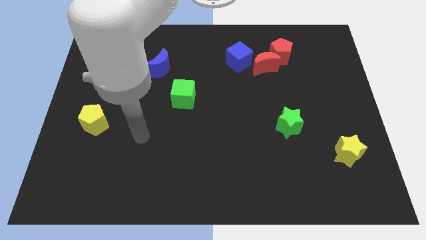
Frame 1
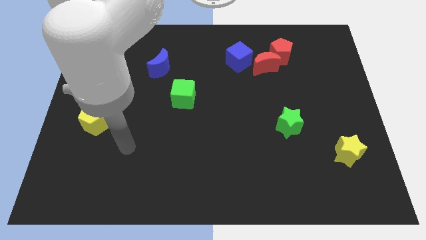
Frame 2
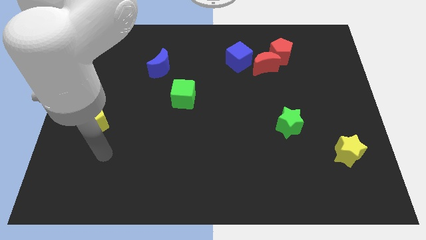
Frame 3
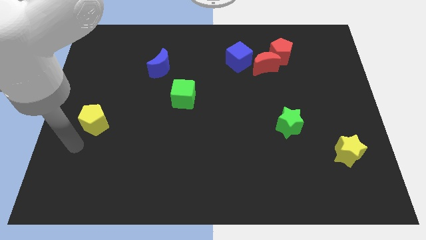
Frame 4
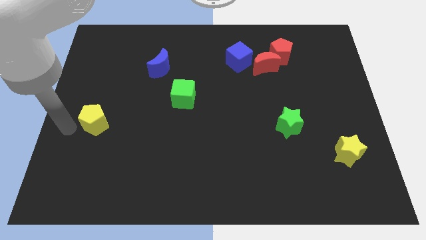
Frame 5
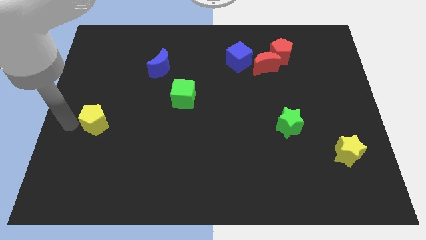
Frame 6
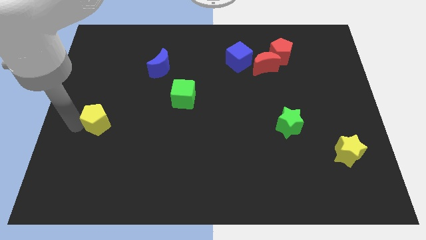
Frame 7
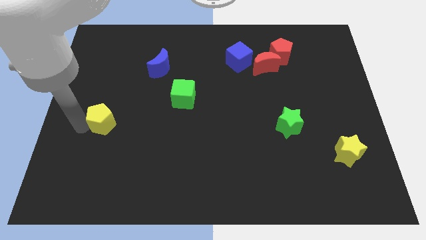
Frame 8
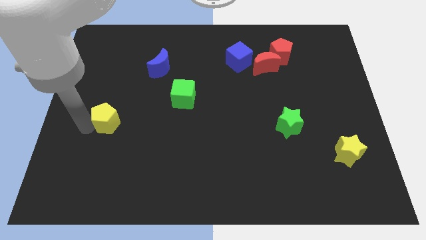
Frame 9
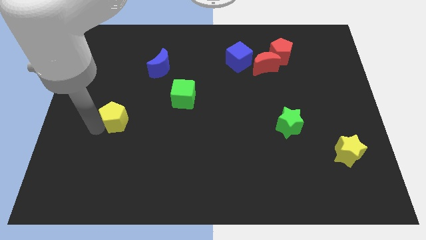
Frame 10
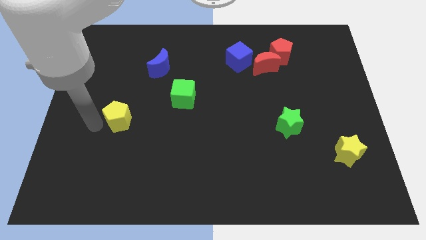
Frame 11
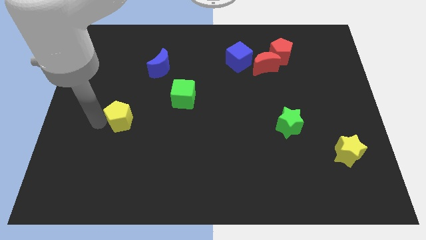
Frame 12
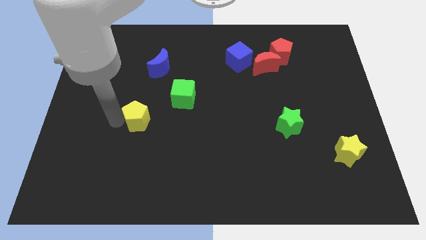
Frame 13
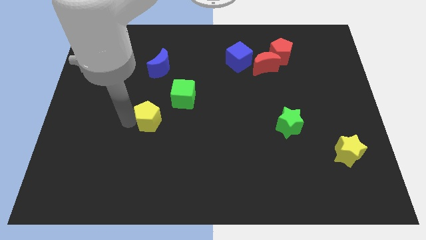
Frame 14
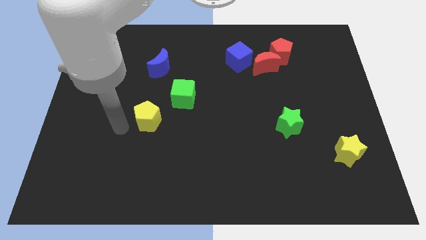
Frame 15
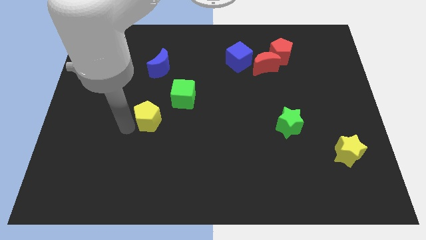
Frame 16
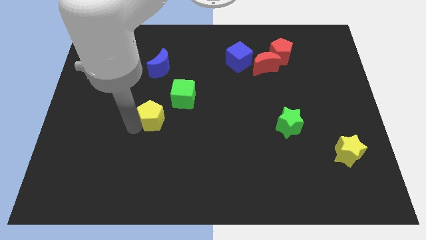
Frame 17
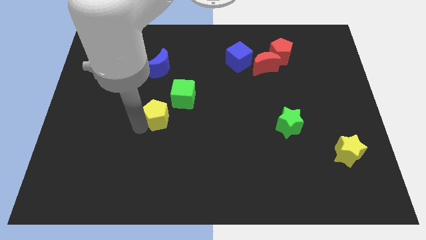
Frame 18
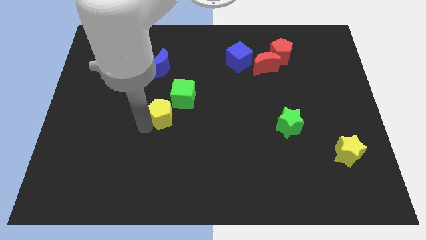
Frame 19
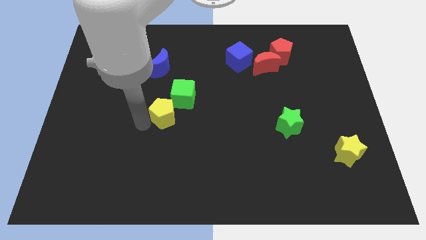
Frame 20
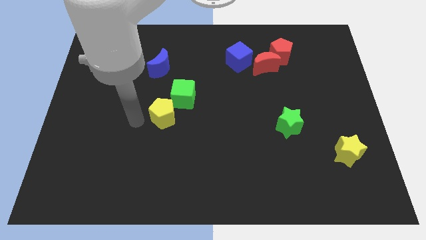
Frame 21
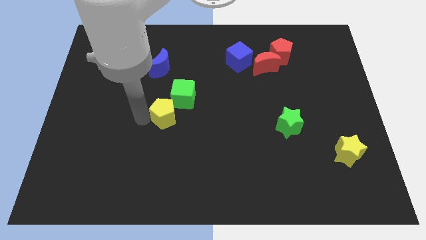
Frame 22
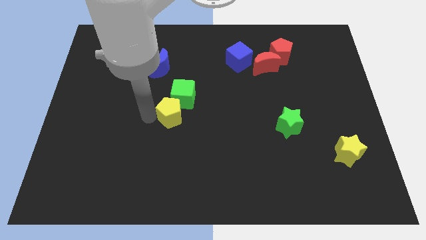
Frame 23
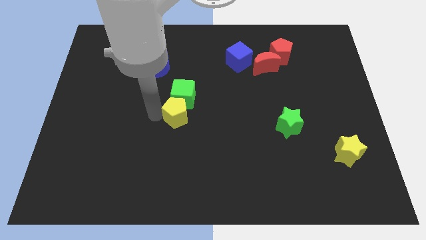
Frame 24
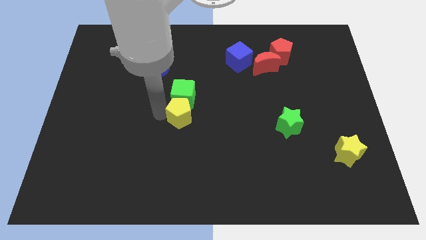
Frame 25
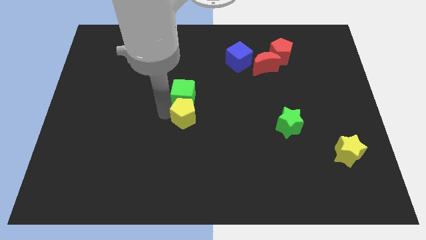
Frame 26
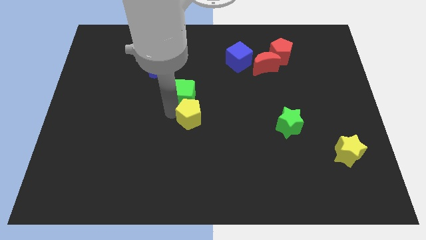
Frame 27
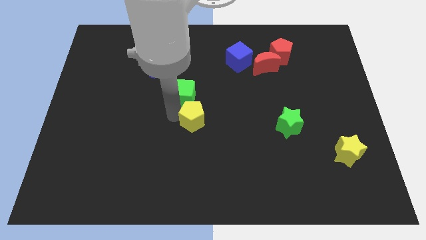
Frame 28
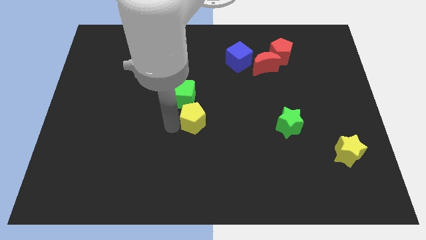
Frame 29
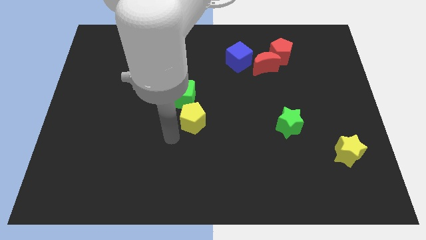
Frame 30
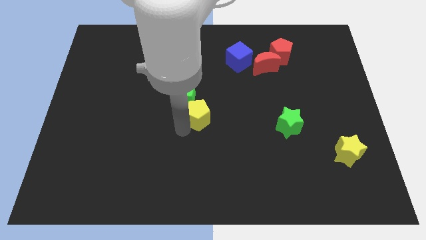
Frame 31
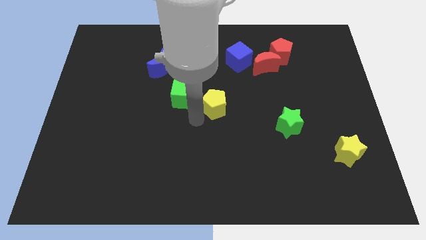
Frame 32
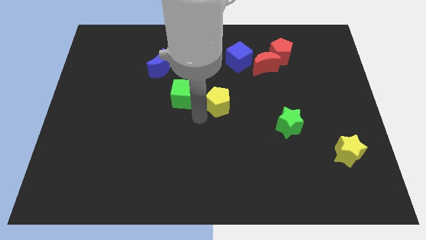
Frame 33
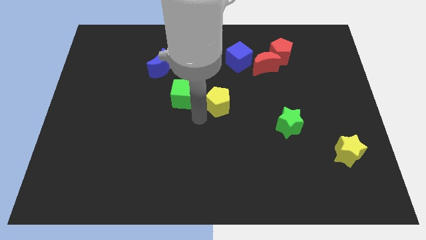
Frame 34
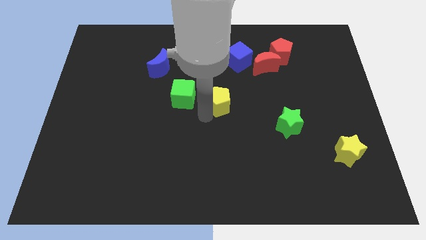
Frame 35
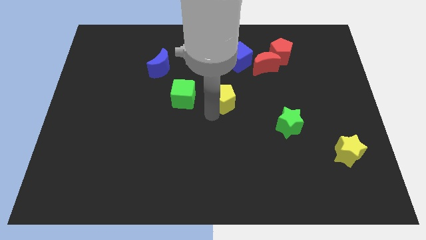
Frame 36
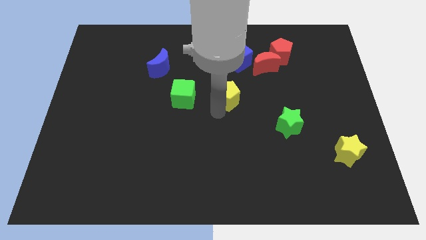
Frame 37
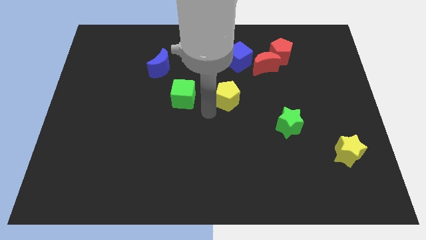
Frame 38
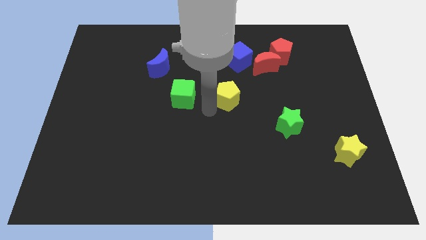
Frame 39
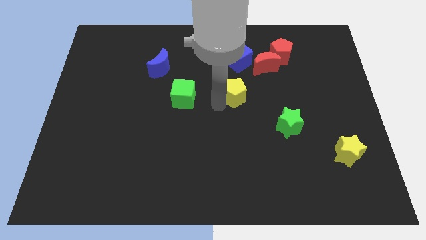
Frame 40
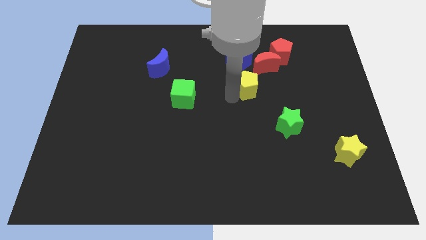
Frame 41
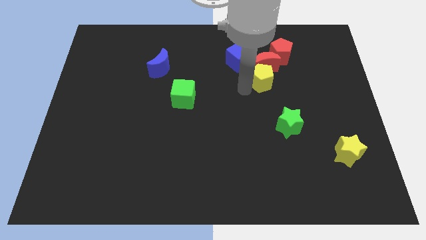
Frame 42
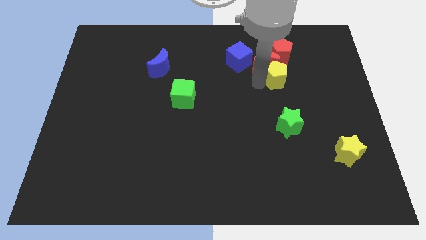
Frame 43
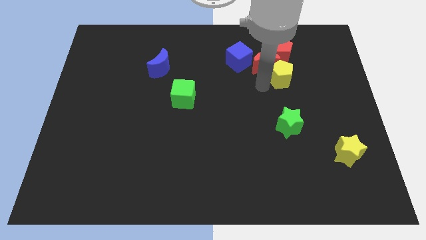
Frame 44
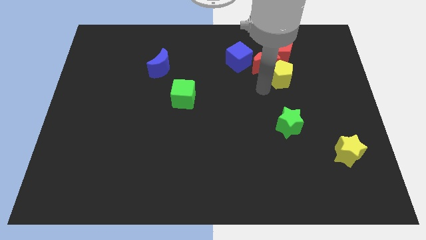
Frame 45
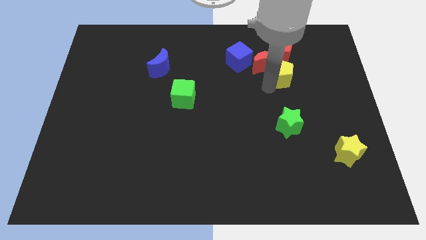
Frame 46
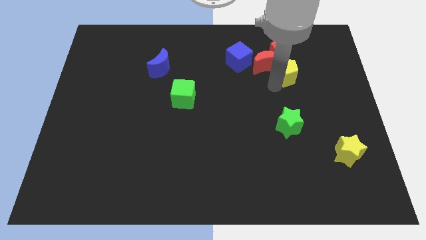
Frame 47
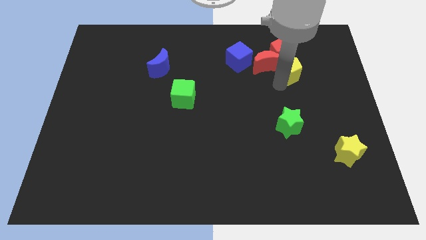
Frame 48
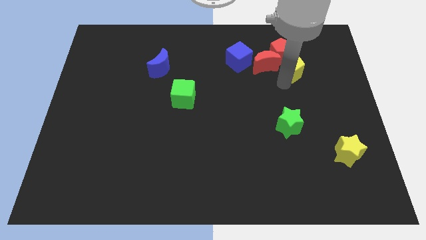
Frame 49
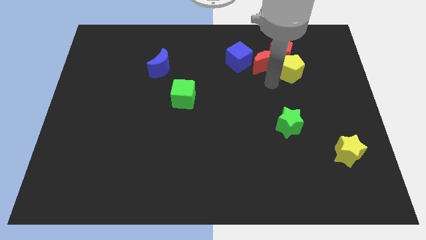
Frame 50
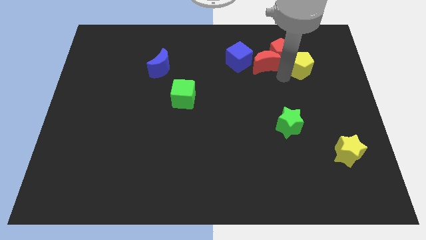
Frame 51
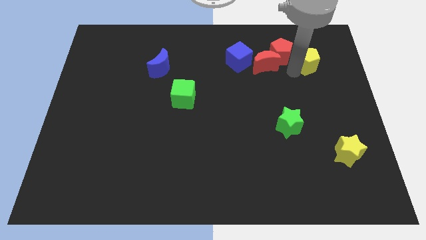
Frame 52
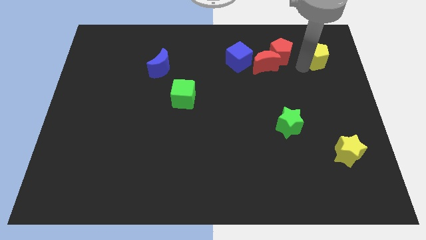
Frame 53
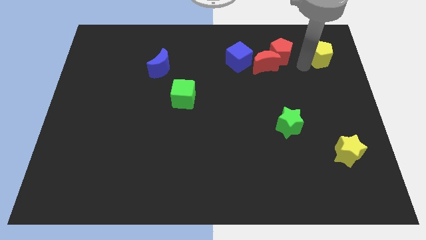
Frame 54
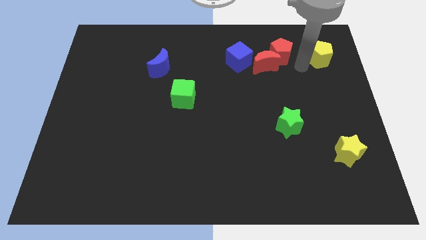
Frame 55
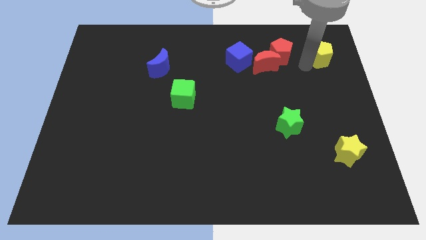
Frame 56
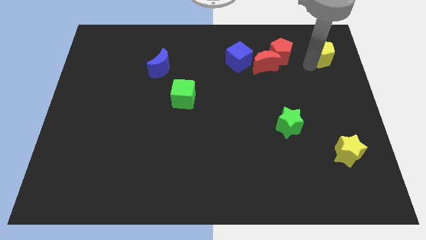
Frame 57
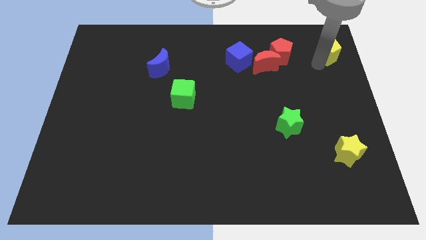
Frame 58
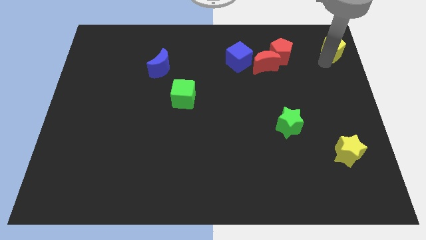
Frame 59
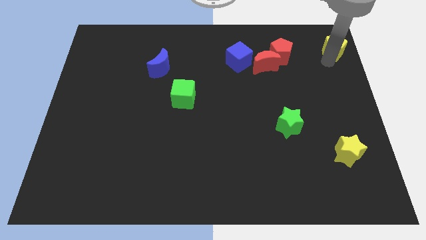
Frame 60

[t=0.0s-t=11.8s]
put the yellow pentagon to the upper right corner

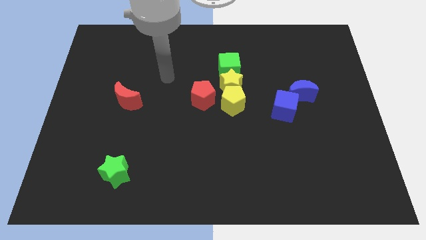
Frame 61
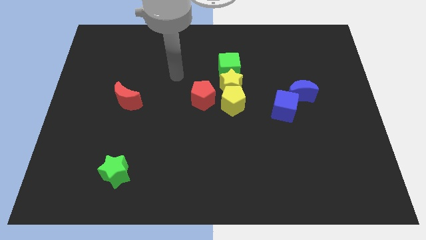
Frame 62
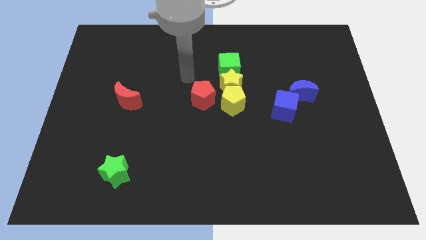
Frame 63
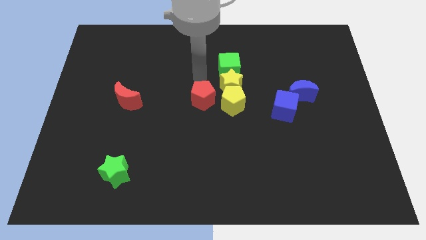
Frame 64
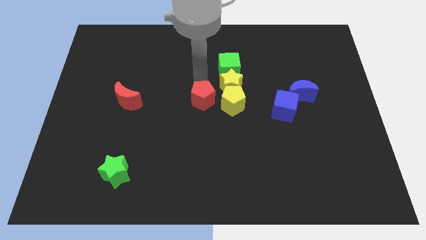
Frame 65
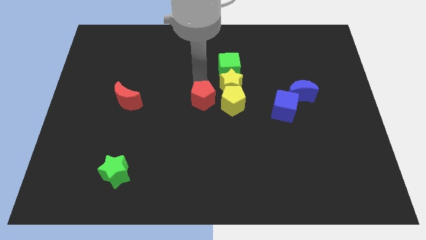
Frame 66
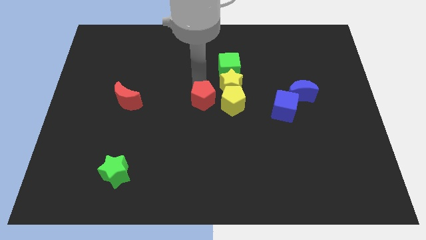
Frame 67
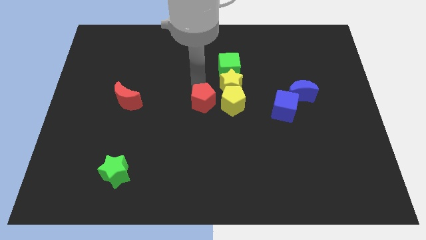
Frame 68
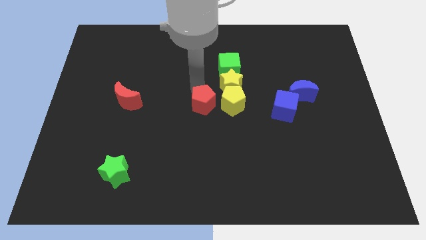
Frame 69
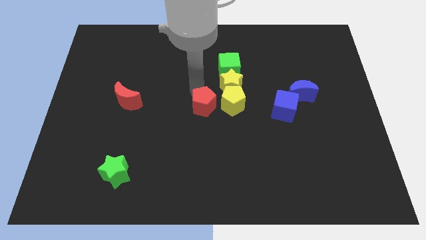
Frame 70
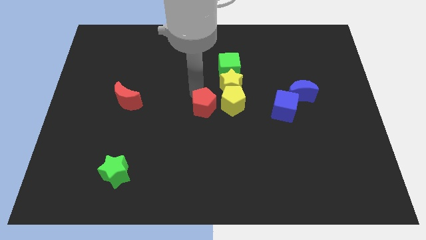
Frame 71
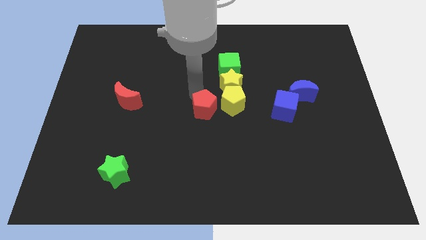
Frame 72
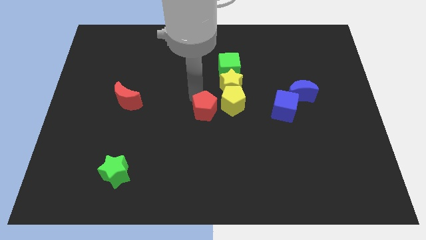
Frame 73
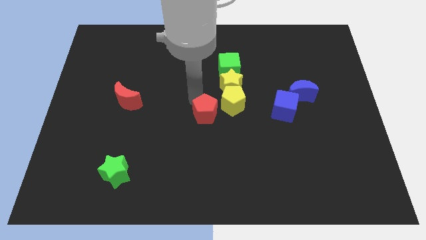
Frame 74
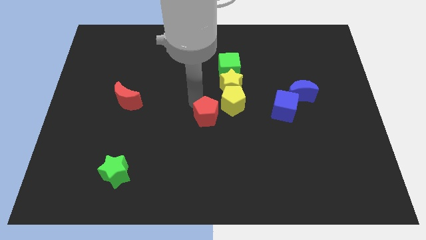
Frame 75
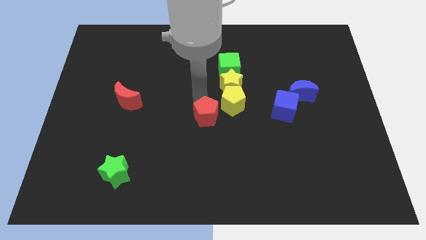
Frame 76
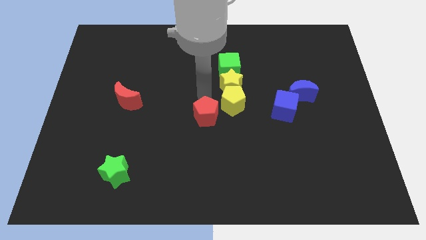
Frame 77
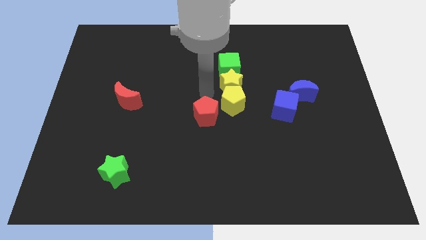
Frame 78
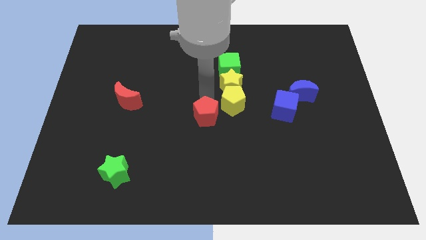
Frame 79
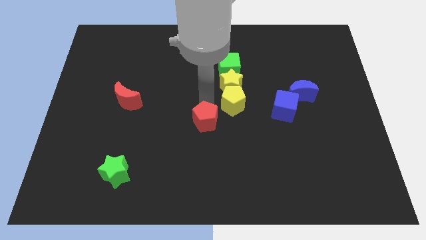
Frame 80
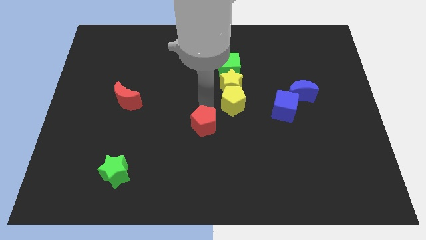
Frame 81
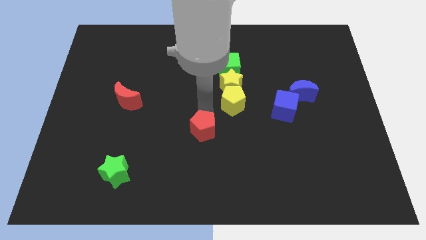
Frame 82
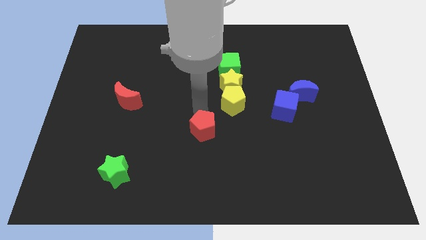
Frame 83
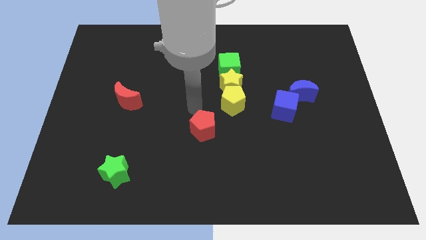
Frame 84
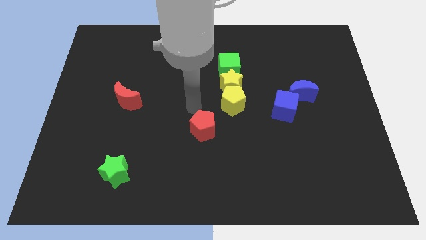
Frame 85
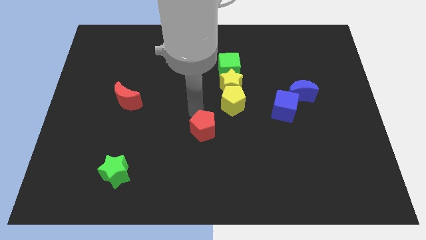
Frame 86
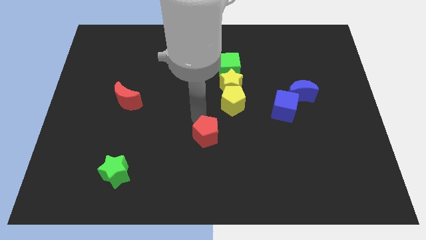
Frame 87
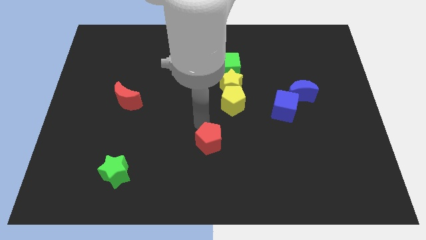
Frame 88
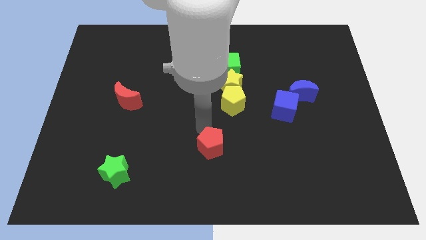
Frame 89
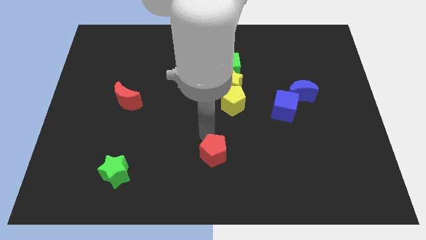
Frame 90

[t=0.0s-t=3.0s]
slide the red pentagon to the bottom side
